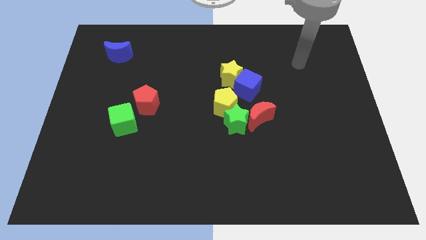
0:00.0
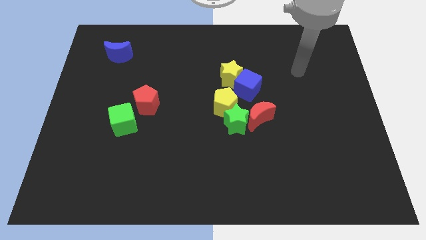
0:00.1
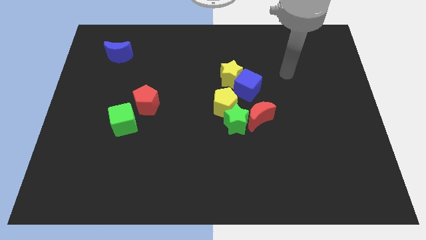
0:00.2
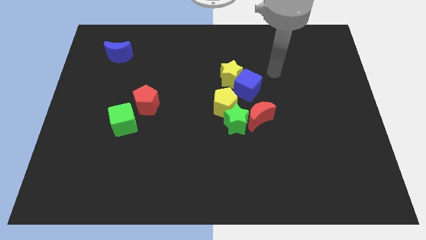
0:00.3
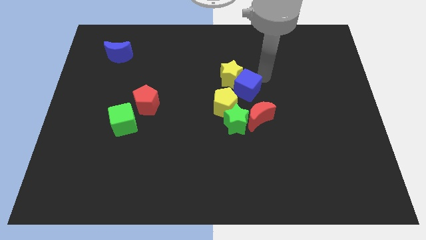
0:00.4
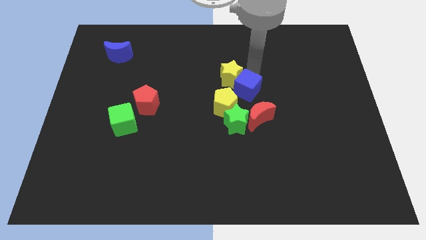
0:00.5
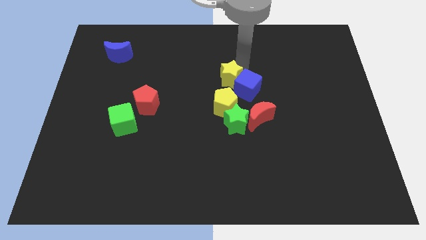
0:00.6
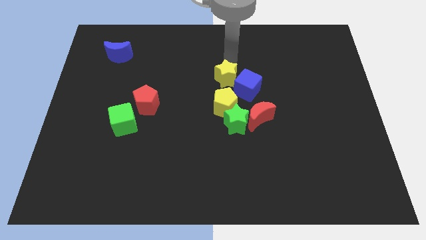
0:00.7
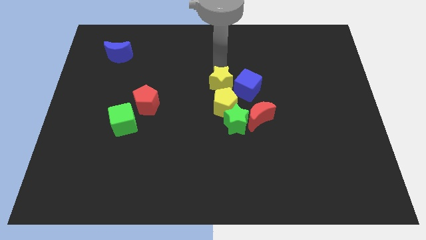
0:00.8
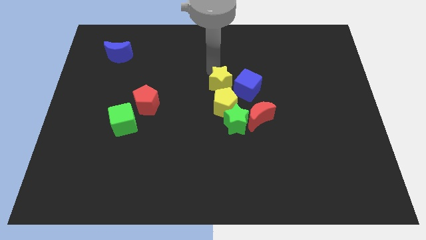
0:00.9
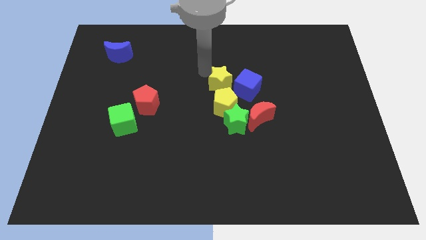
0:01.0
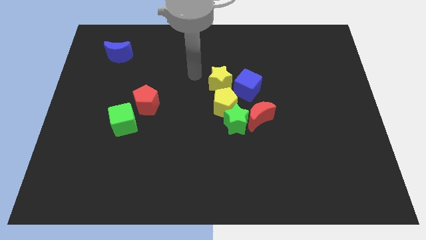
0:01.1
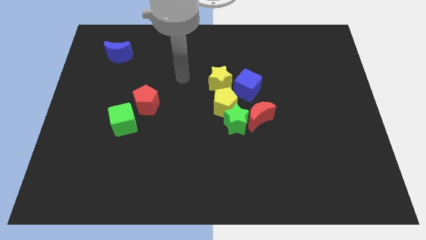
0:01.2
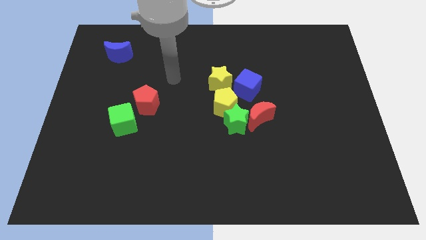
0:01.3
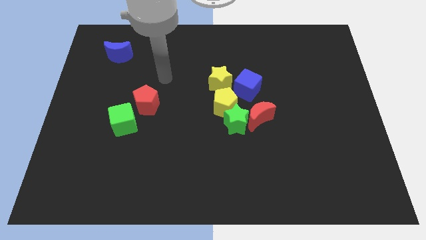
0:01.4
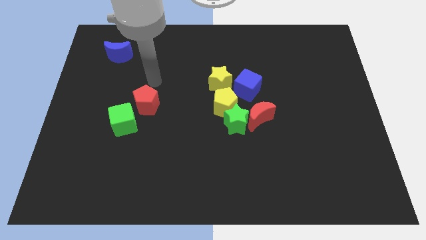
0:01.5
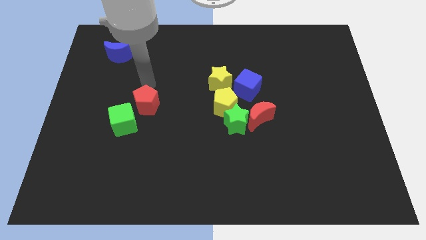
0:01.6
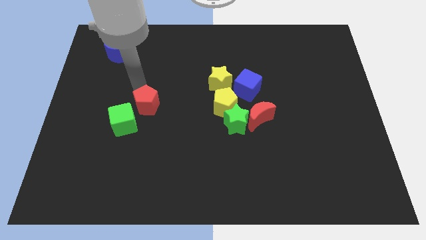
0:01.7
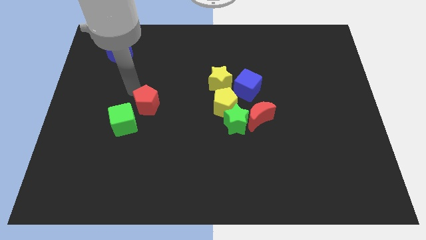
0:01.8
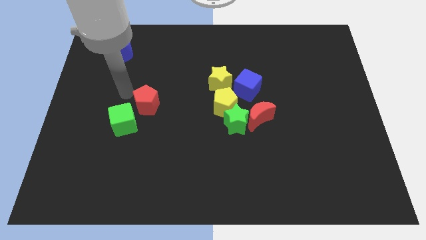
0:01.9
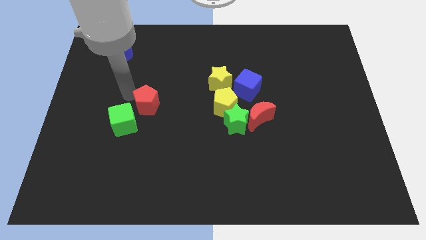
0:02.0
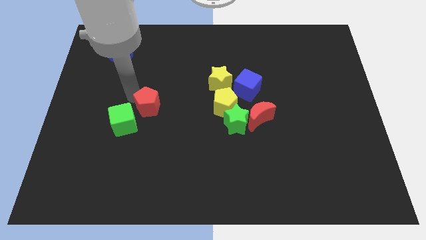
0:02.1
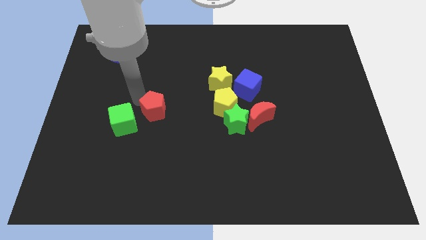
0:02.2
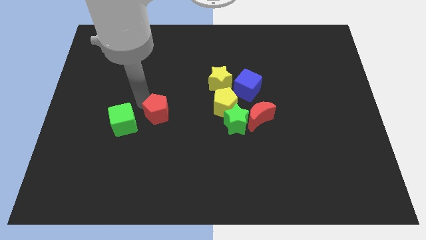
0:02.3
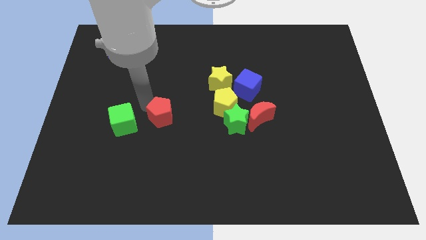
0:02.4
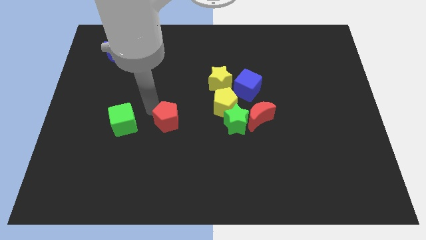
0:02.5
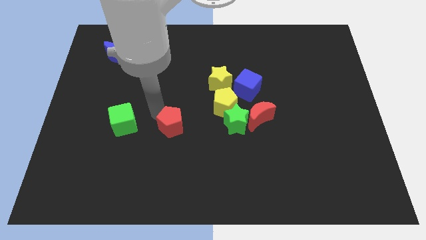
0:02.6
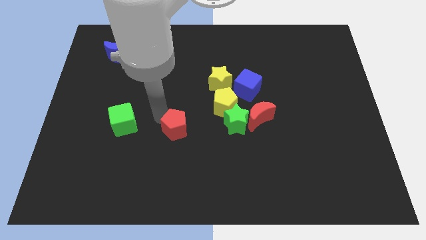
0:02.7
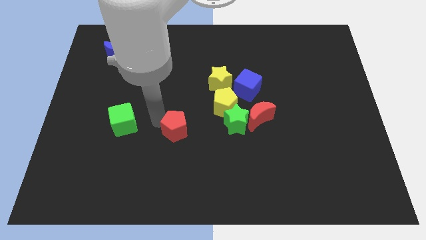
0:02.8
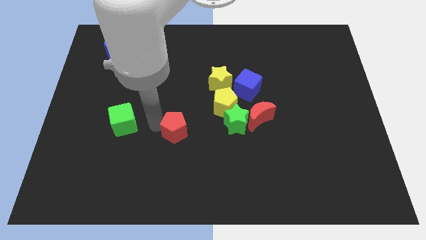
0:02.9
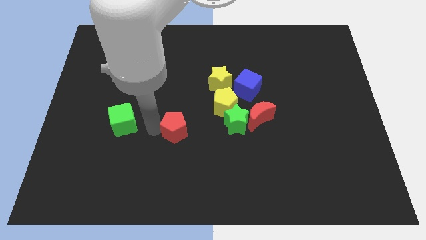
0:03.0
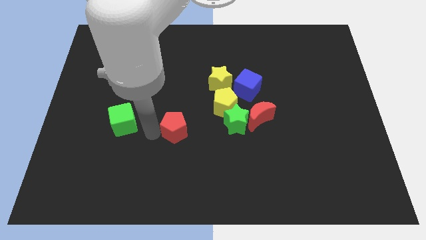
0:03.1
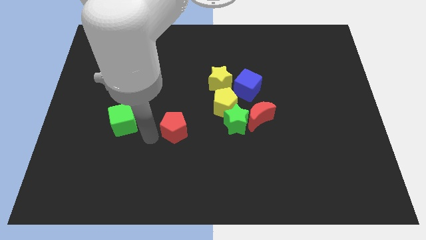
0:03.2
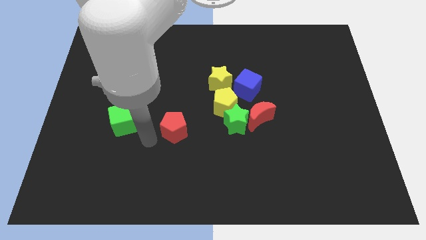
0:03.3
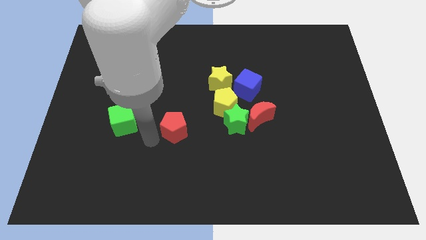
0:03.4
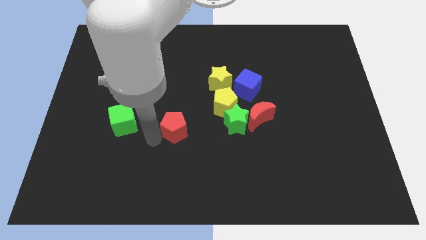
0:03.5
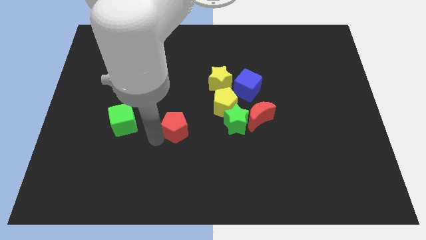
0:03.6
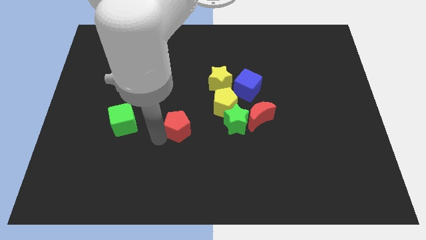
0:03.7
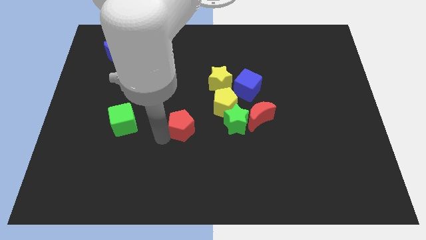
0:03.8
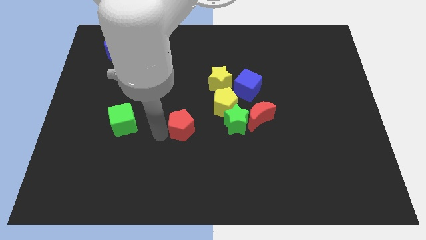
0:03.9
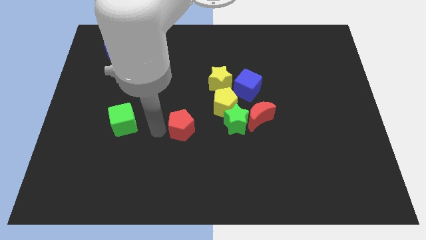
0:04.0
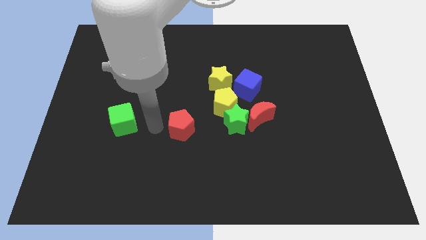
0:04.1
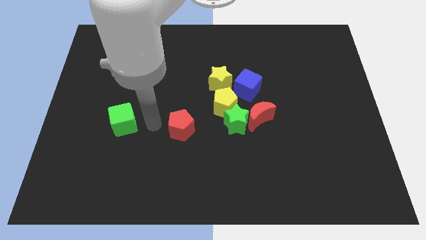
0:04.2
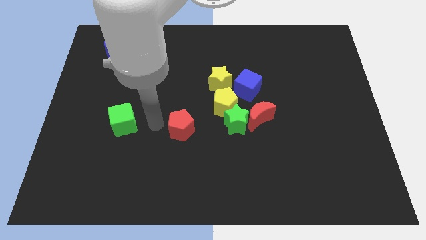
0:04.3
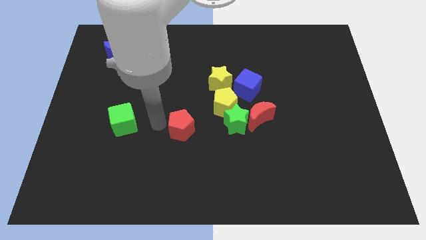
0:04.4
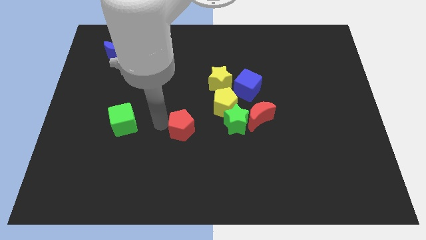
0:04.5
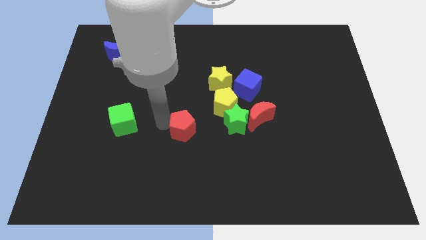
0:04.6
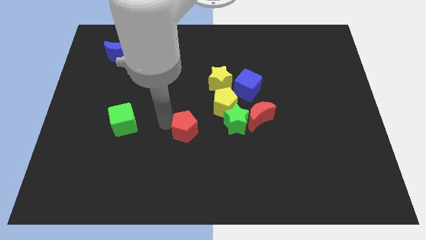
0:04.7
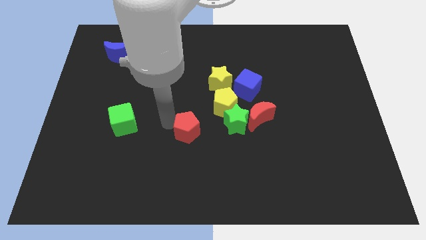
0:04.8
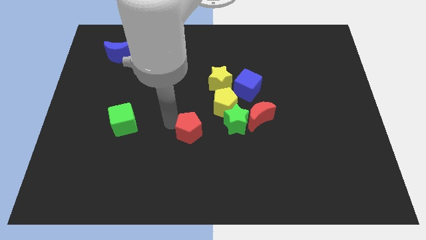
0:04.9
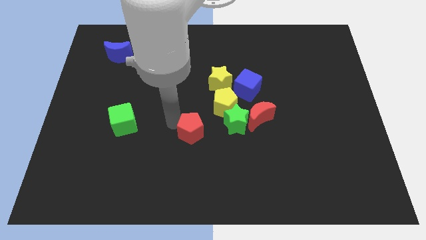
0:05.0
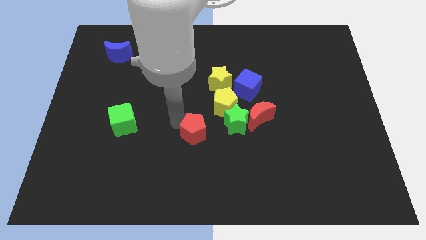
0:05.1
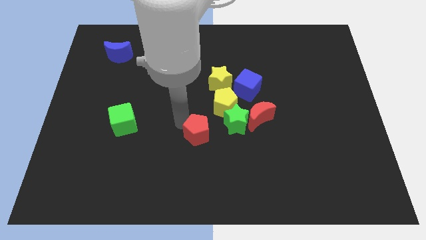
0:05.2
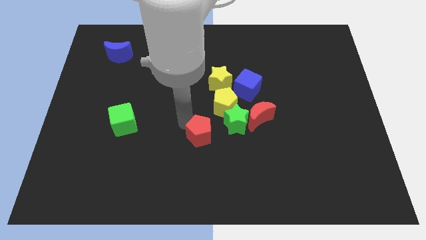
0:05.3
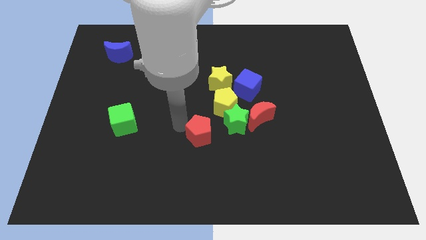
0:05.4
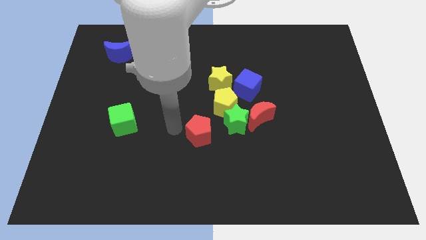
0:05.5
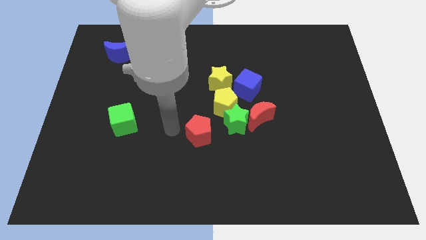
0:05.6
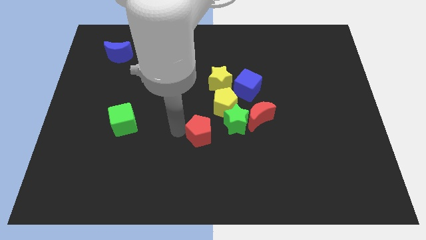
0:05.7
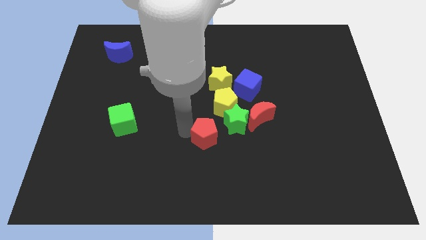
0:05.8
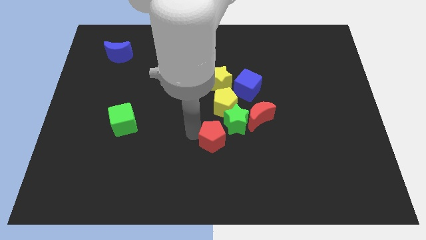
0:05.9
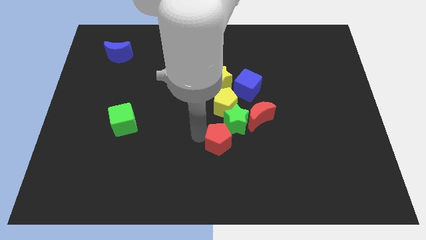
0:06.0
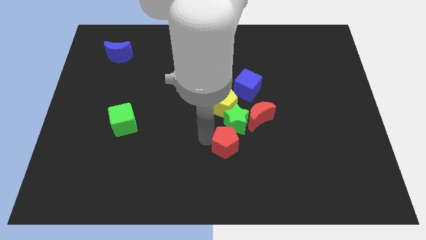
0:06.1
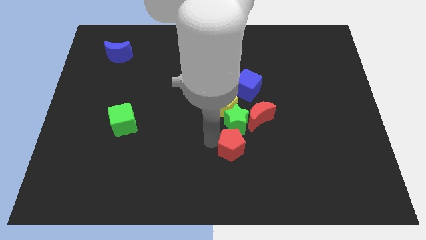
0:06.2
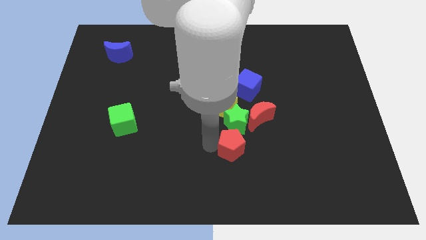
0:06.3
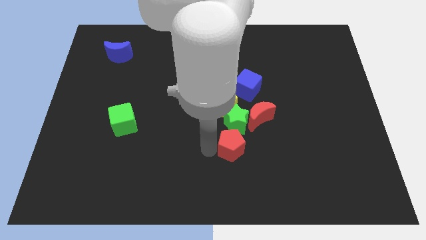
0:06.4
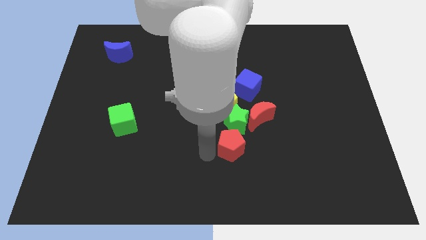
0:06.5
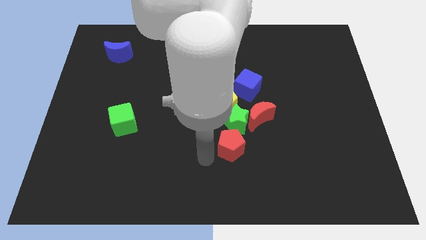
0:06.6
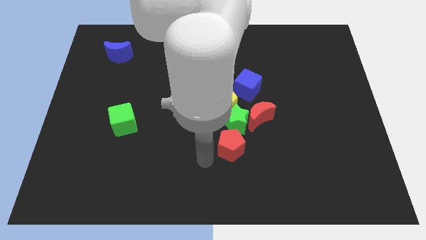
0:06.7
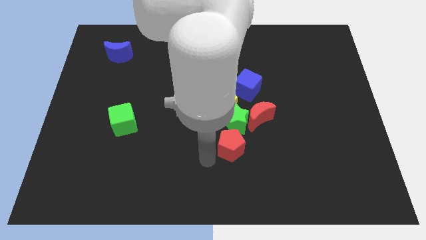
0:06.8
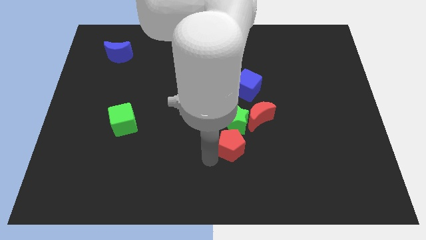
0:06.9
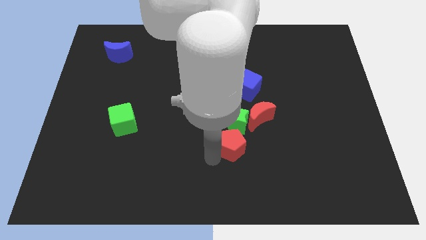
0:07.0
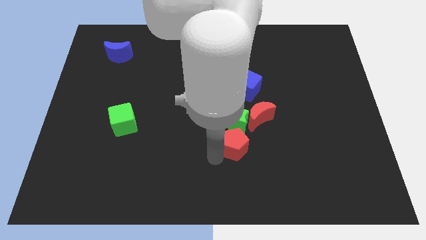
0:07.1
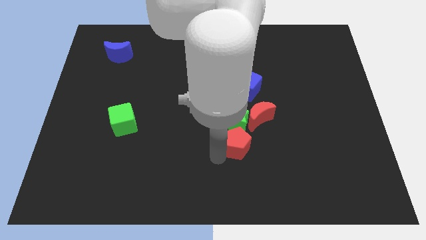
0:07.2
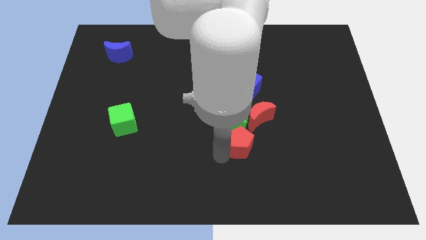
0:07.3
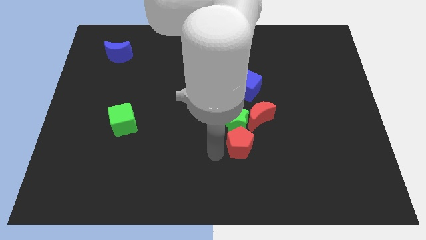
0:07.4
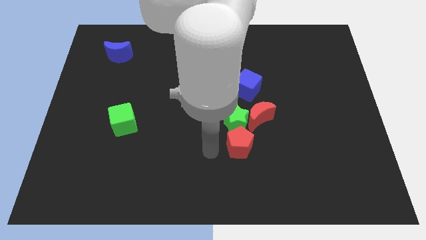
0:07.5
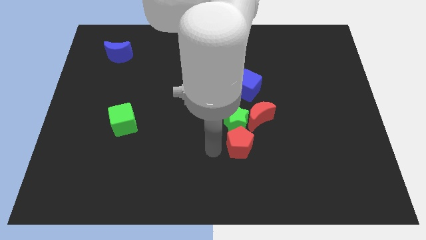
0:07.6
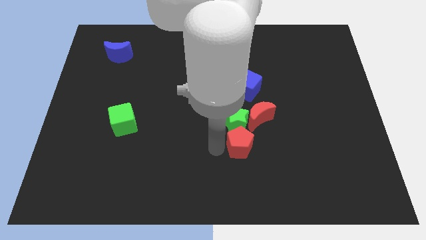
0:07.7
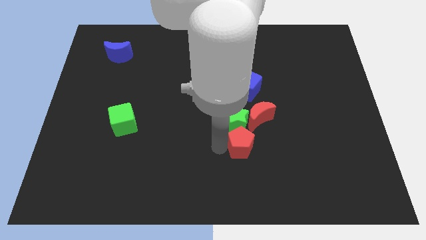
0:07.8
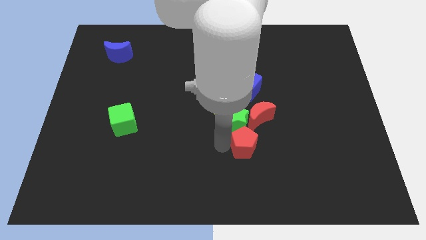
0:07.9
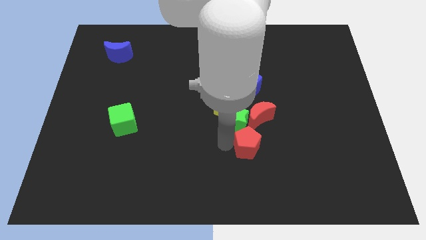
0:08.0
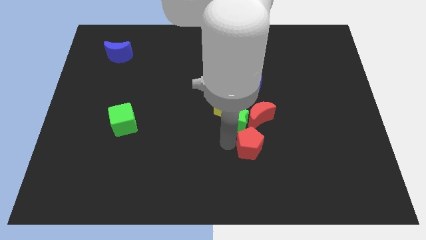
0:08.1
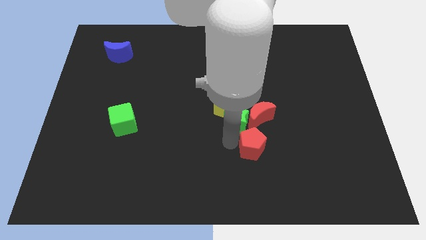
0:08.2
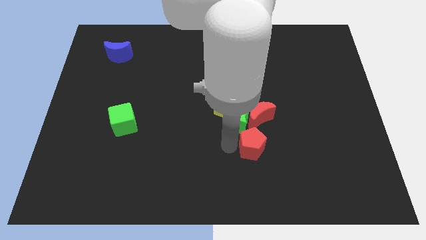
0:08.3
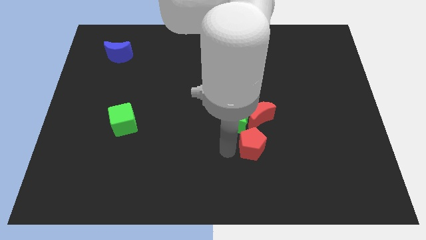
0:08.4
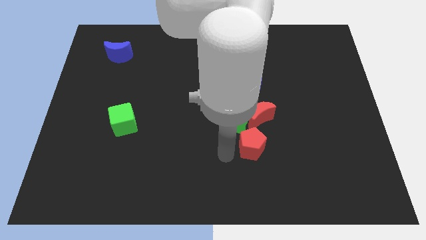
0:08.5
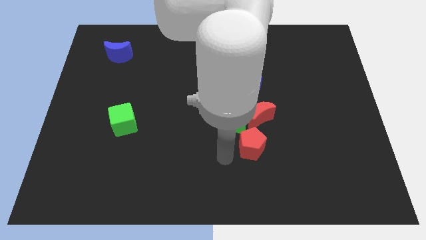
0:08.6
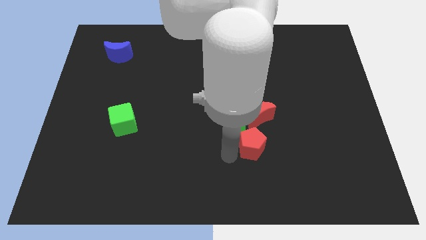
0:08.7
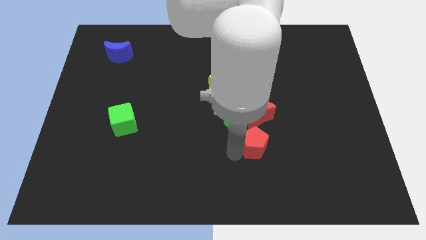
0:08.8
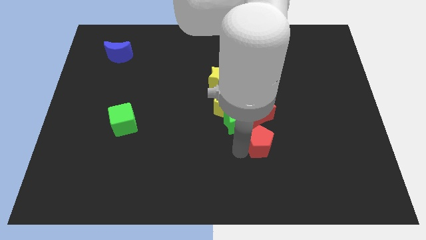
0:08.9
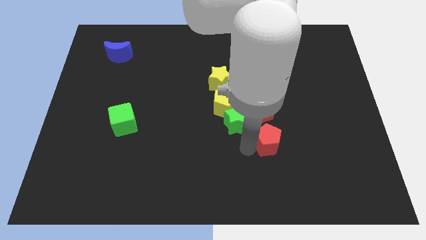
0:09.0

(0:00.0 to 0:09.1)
move the red pentagon to the right
